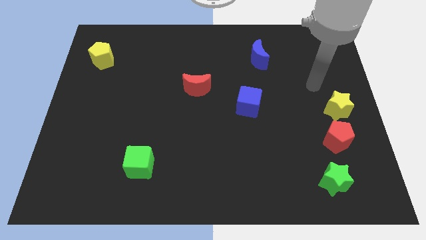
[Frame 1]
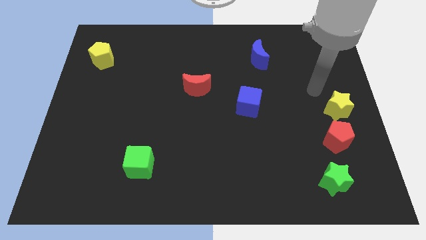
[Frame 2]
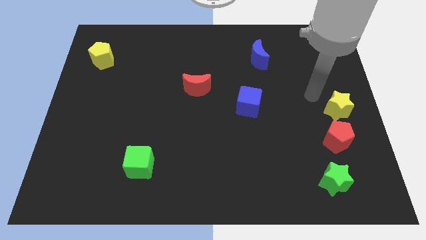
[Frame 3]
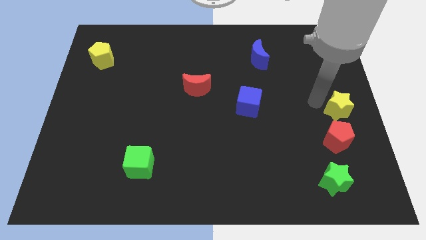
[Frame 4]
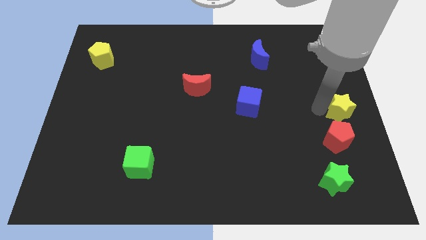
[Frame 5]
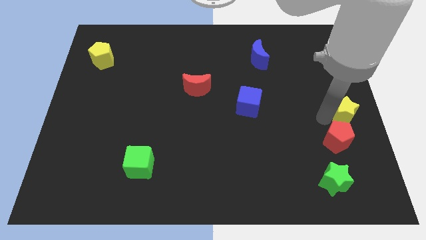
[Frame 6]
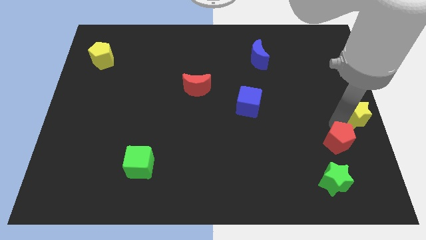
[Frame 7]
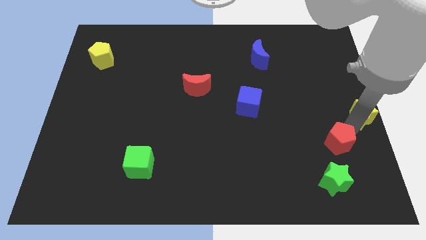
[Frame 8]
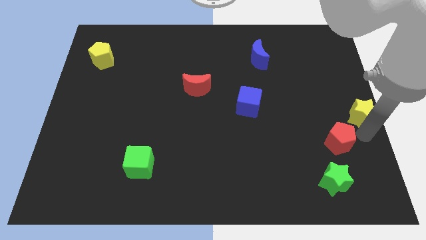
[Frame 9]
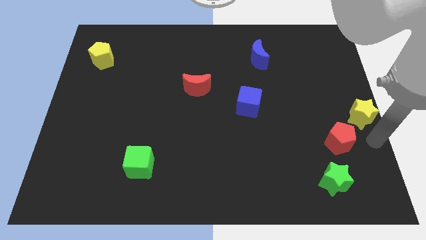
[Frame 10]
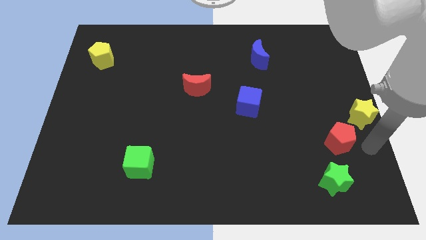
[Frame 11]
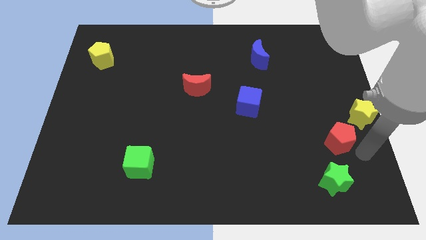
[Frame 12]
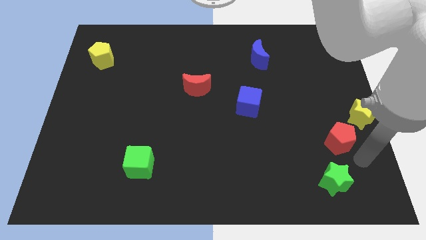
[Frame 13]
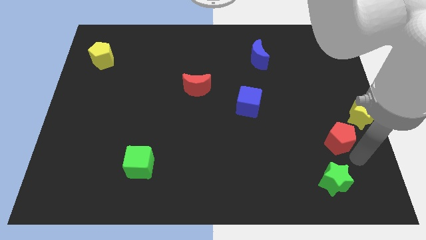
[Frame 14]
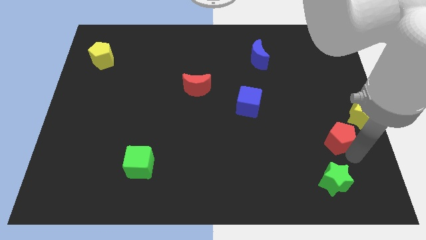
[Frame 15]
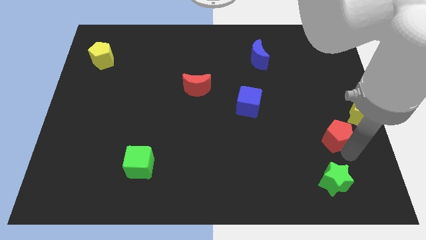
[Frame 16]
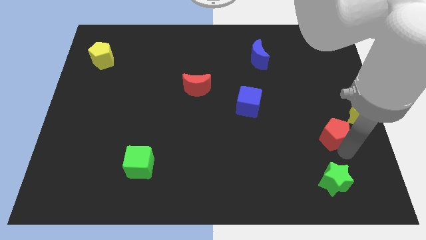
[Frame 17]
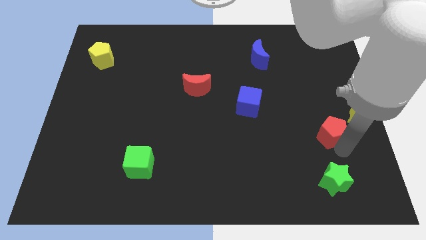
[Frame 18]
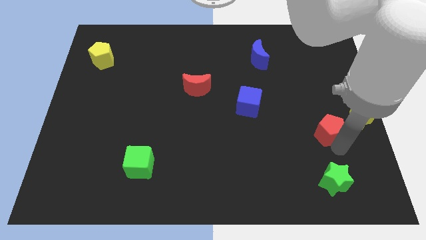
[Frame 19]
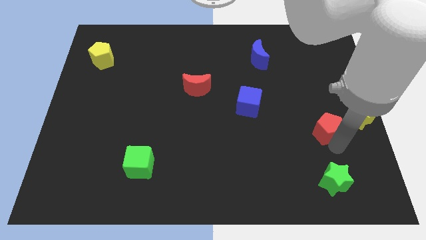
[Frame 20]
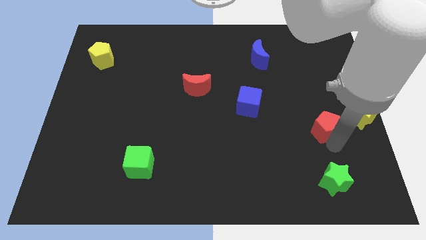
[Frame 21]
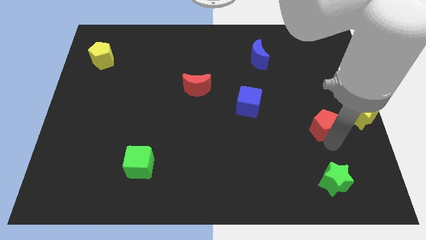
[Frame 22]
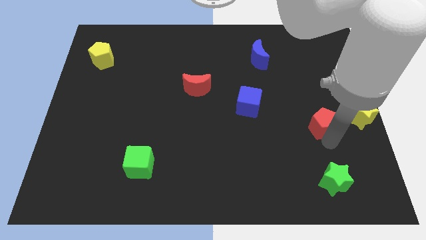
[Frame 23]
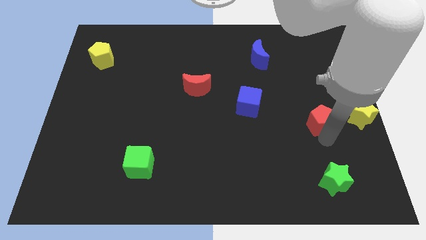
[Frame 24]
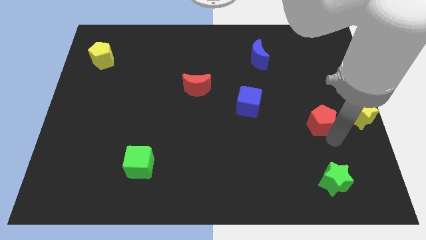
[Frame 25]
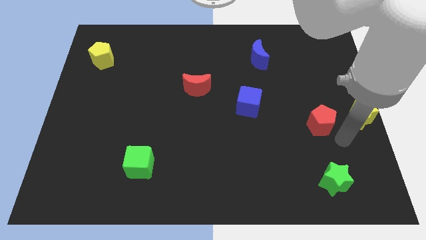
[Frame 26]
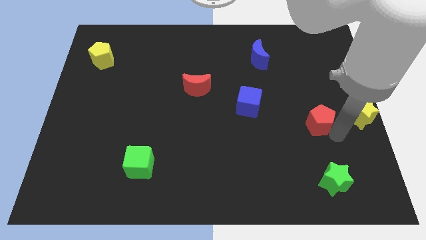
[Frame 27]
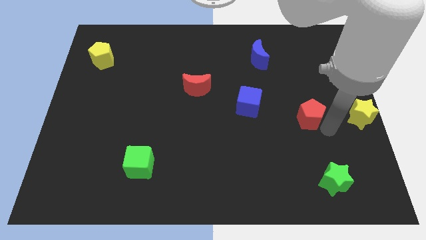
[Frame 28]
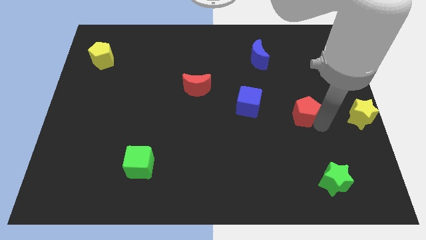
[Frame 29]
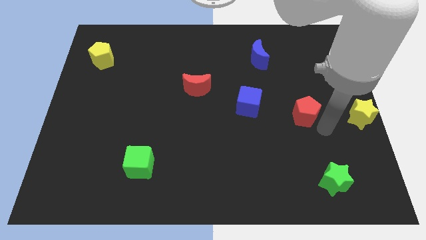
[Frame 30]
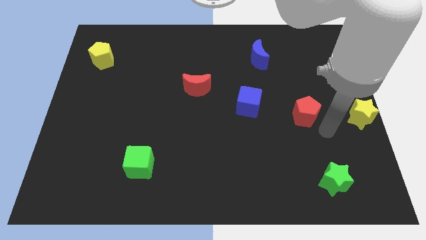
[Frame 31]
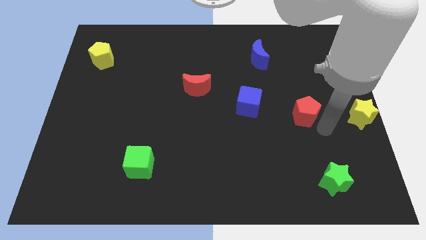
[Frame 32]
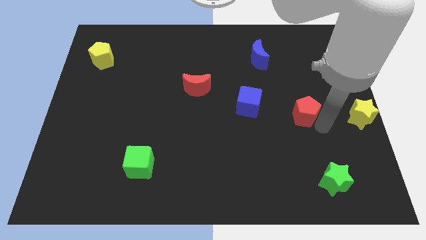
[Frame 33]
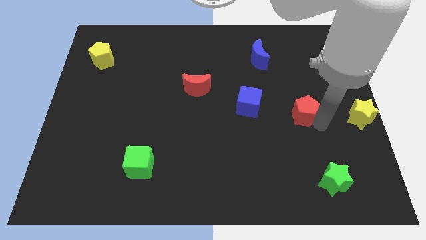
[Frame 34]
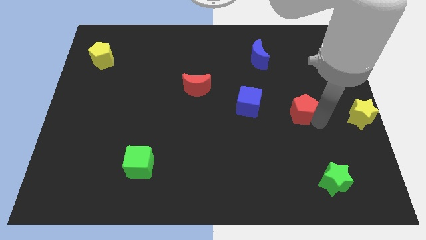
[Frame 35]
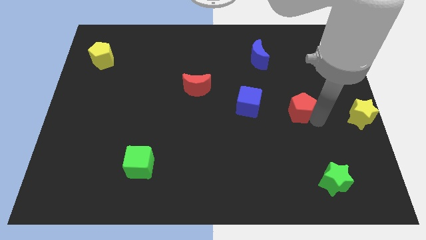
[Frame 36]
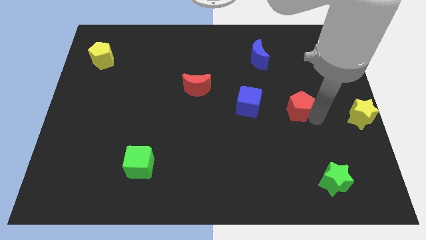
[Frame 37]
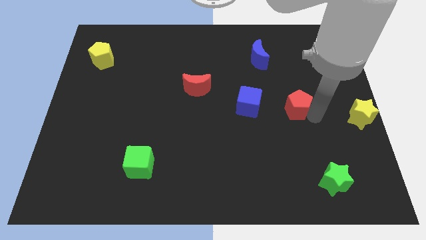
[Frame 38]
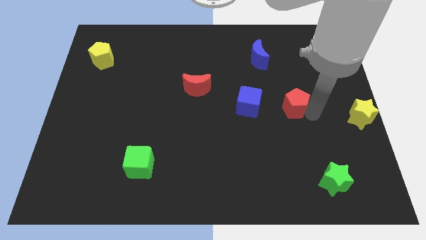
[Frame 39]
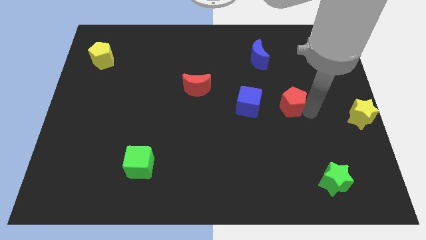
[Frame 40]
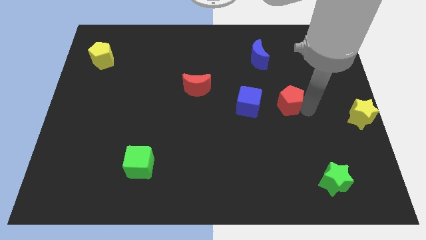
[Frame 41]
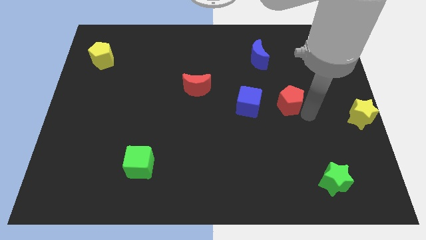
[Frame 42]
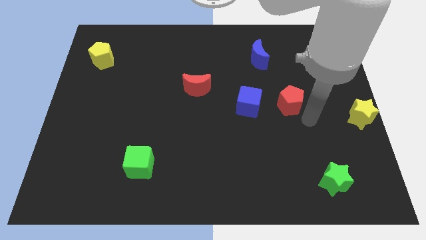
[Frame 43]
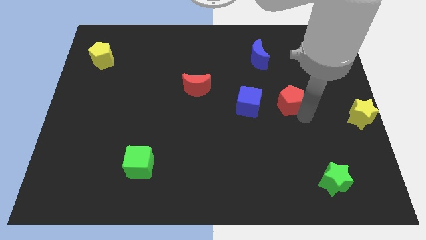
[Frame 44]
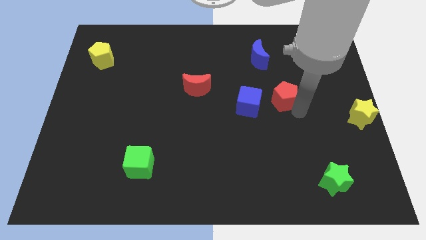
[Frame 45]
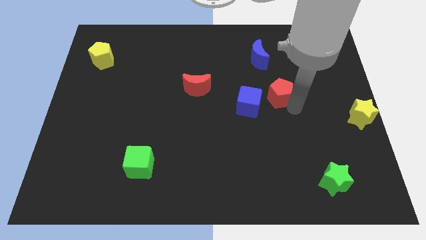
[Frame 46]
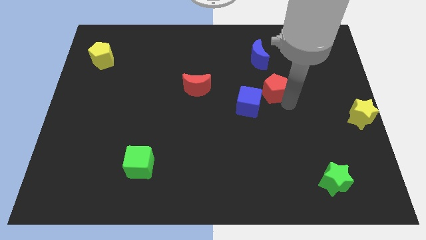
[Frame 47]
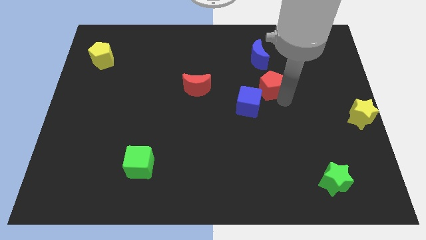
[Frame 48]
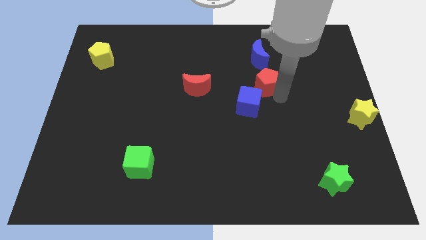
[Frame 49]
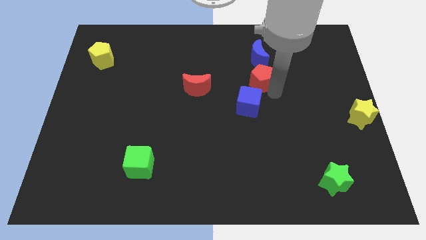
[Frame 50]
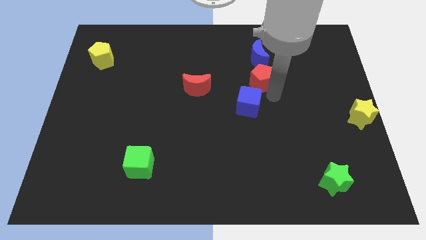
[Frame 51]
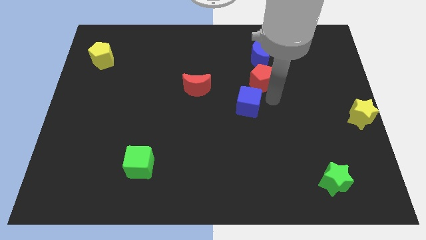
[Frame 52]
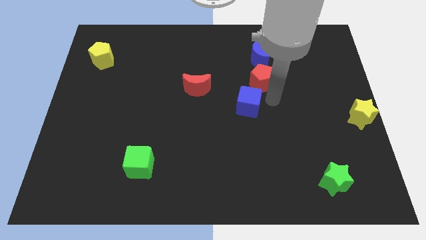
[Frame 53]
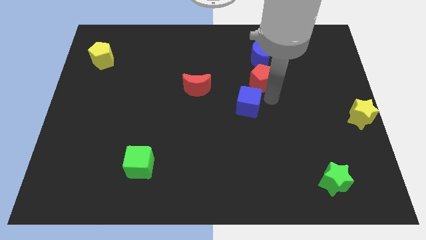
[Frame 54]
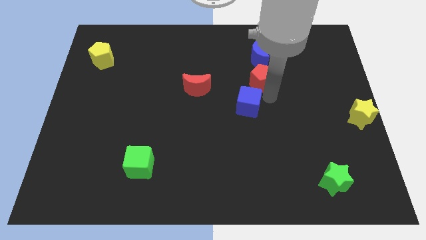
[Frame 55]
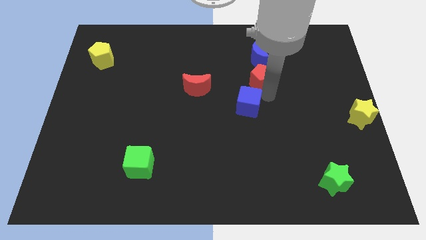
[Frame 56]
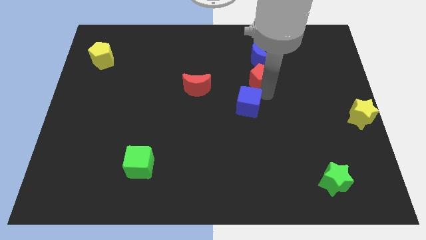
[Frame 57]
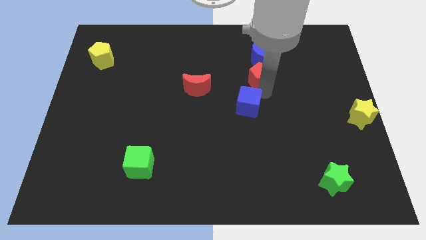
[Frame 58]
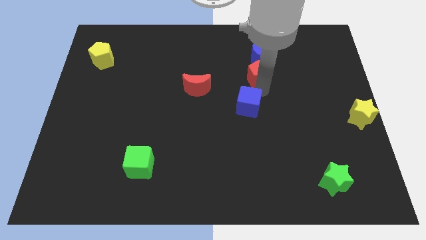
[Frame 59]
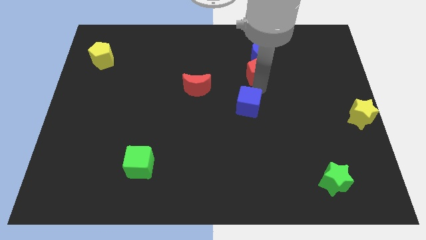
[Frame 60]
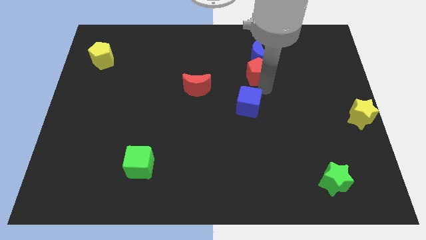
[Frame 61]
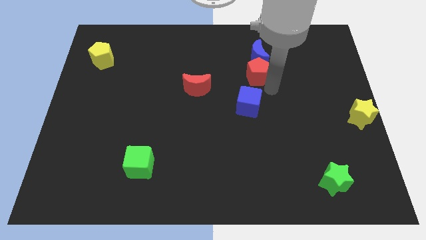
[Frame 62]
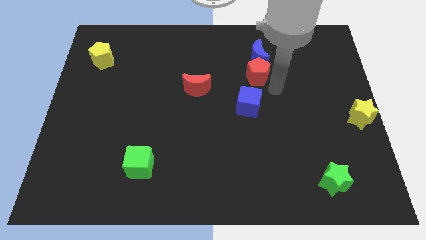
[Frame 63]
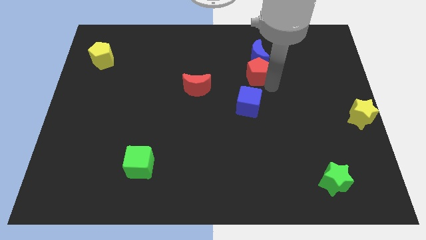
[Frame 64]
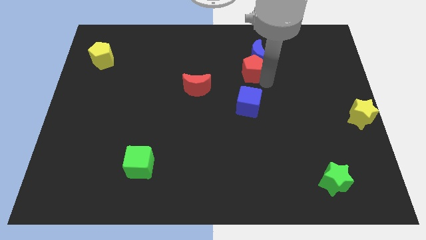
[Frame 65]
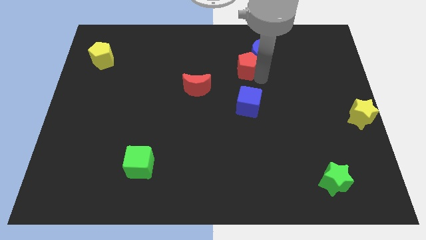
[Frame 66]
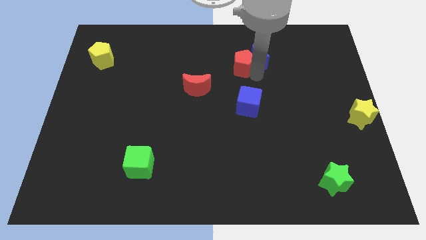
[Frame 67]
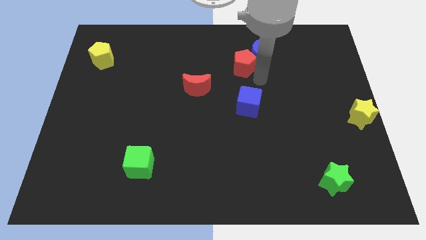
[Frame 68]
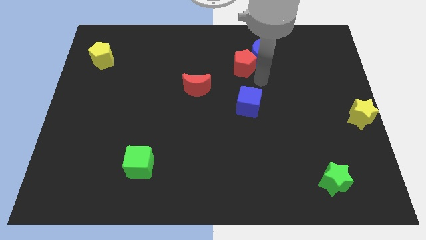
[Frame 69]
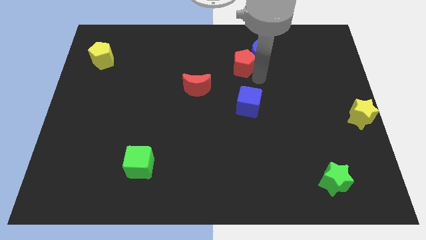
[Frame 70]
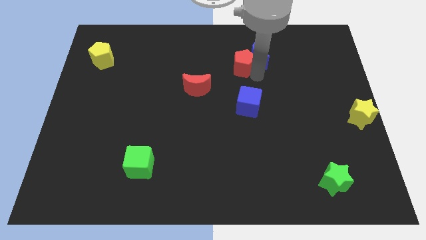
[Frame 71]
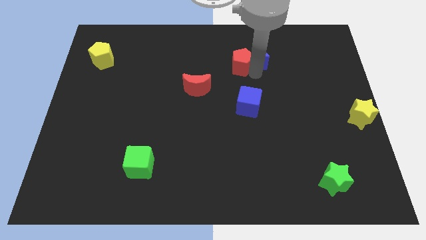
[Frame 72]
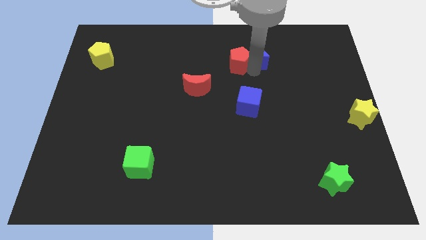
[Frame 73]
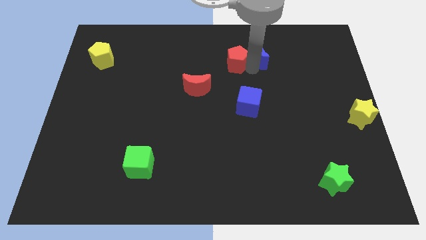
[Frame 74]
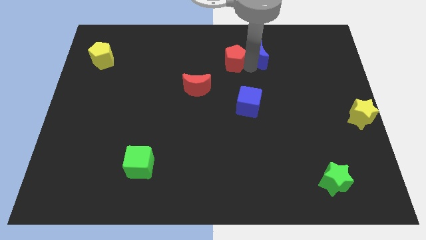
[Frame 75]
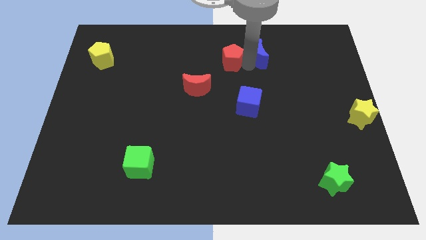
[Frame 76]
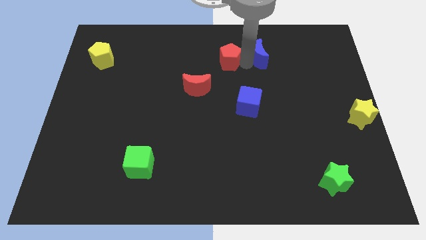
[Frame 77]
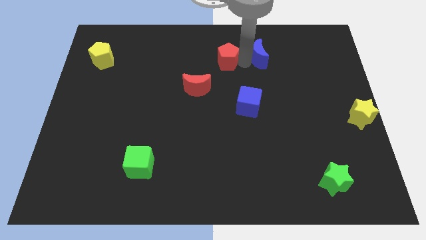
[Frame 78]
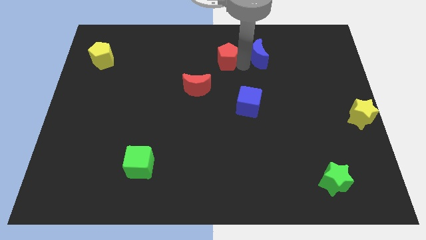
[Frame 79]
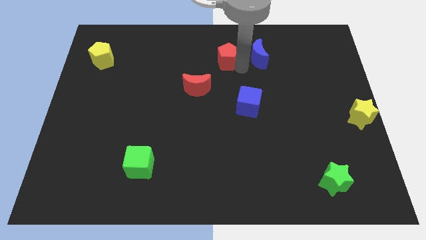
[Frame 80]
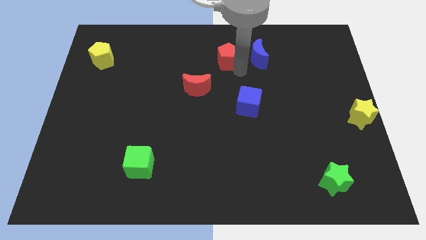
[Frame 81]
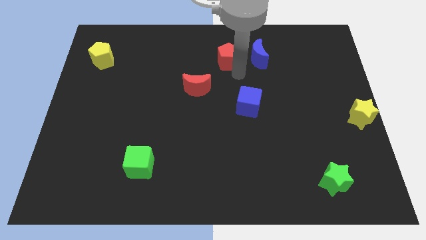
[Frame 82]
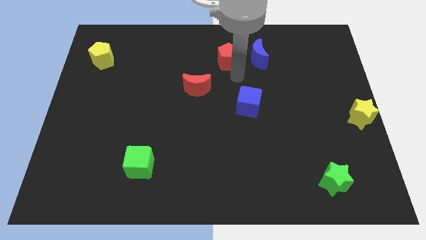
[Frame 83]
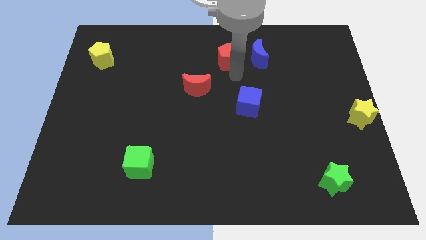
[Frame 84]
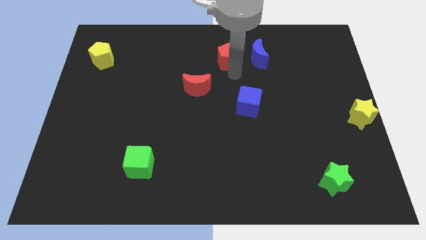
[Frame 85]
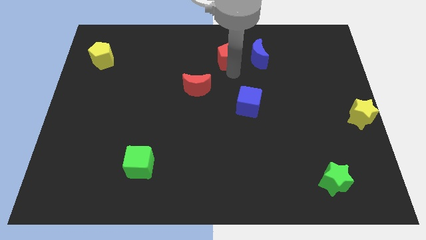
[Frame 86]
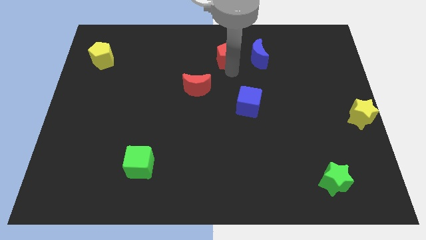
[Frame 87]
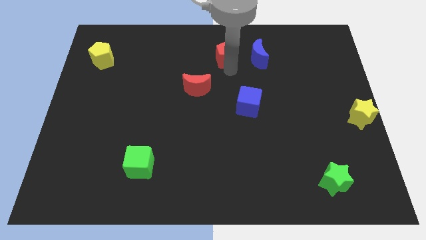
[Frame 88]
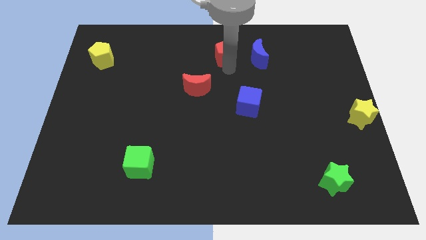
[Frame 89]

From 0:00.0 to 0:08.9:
push the red pentagon to the top
